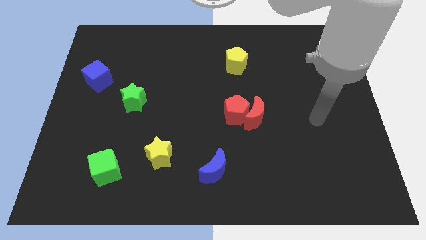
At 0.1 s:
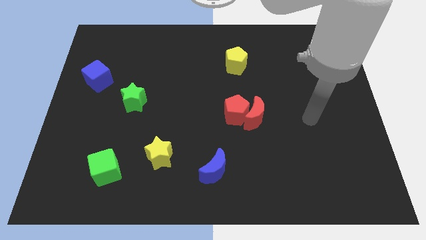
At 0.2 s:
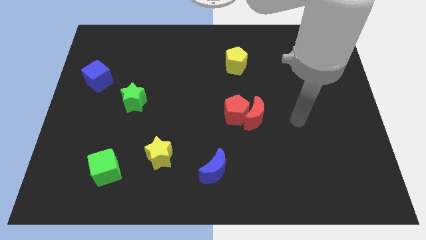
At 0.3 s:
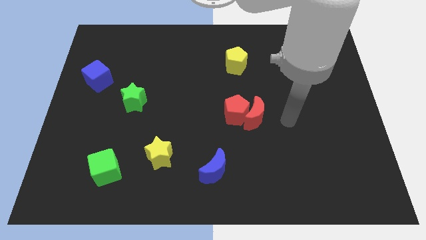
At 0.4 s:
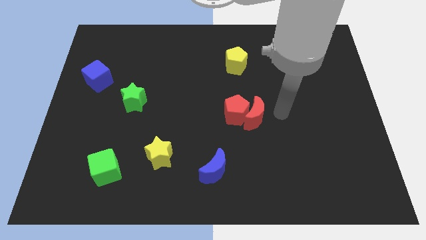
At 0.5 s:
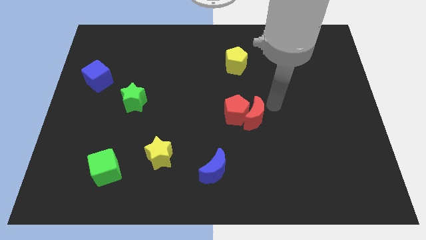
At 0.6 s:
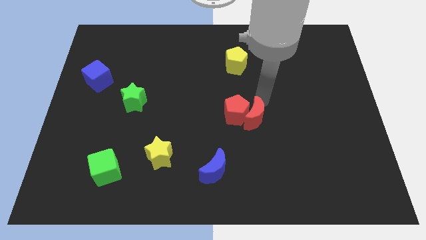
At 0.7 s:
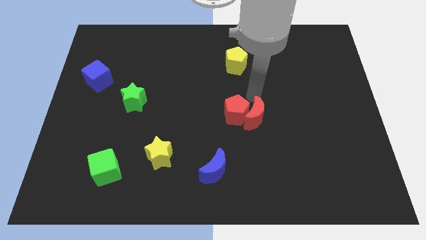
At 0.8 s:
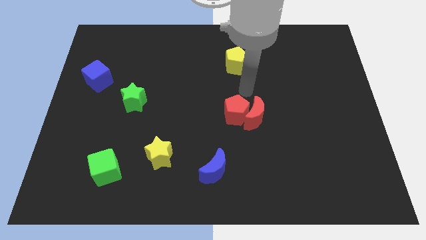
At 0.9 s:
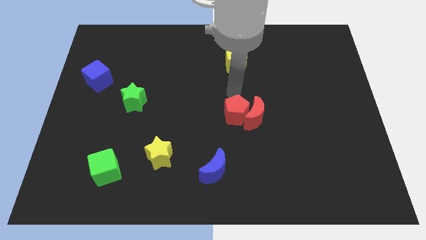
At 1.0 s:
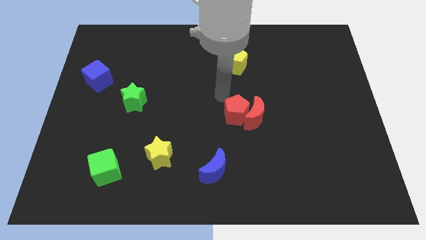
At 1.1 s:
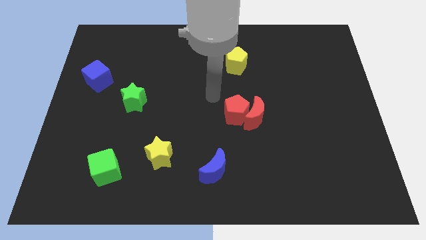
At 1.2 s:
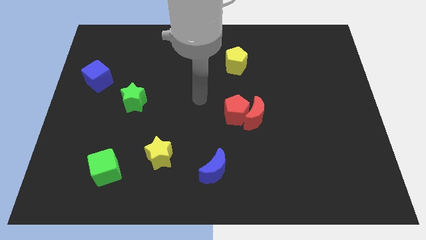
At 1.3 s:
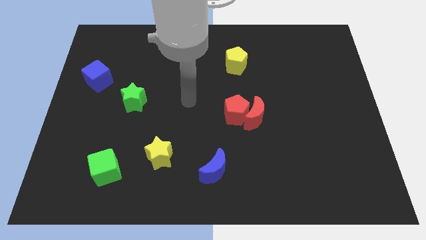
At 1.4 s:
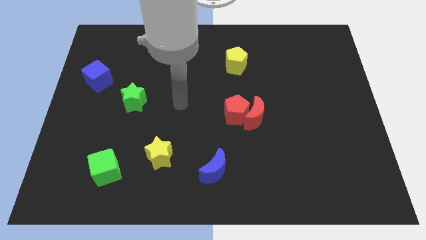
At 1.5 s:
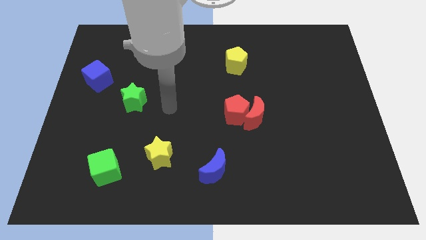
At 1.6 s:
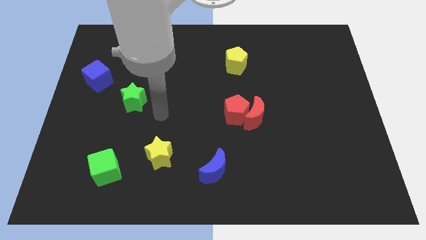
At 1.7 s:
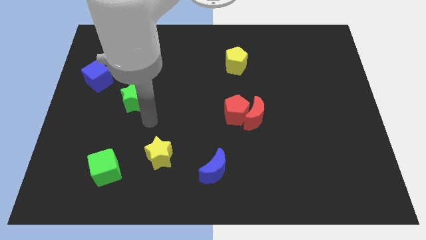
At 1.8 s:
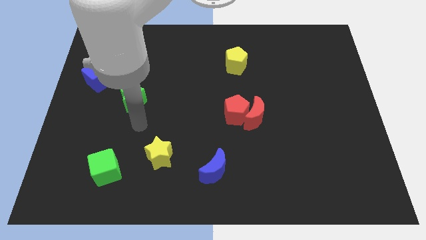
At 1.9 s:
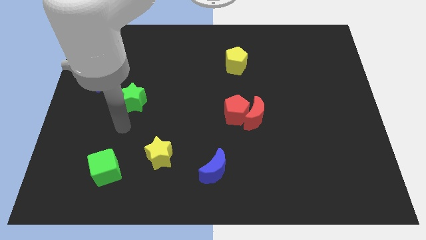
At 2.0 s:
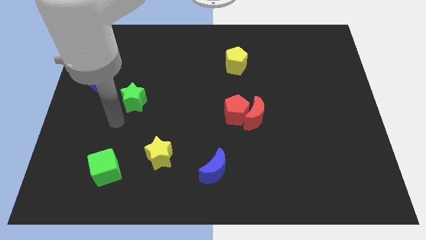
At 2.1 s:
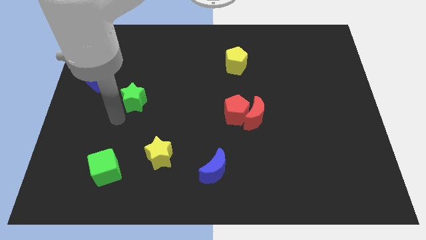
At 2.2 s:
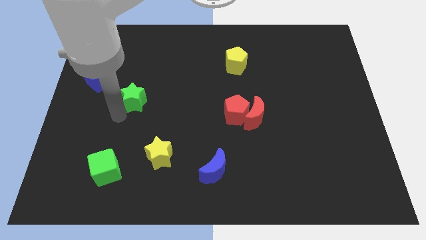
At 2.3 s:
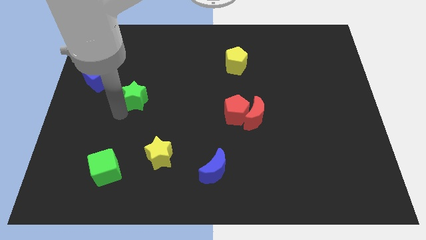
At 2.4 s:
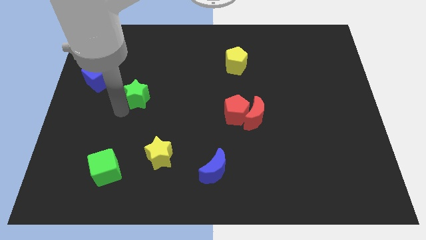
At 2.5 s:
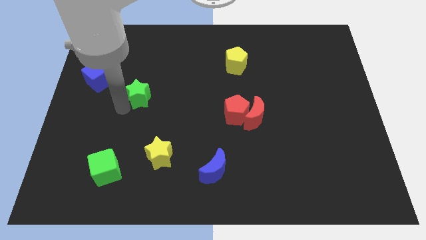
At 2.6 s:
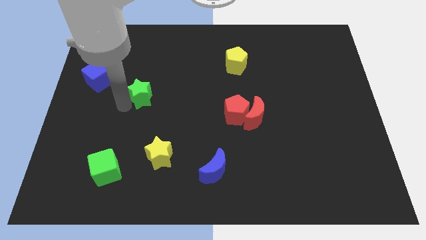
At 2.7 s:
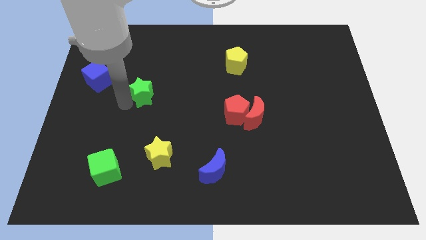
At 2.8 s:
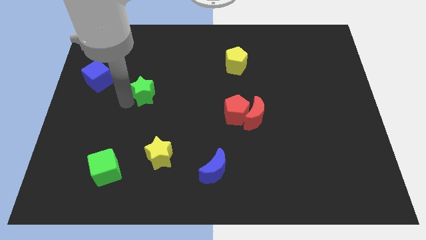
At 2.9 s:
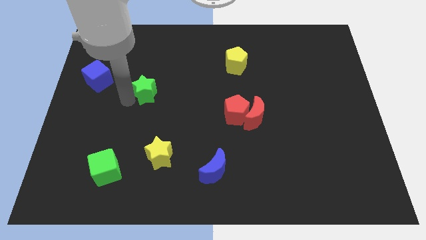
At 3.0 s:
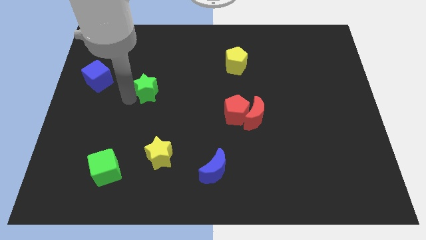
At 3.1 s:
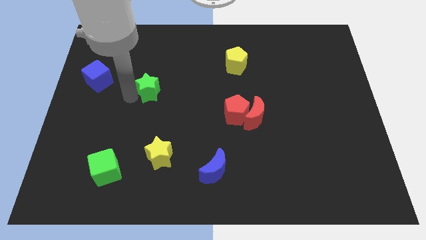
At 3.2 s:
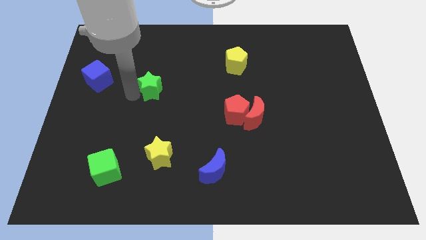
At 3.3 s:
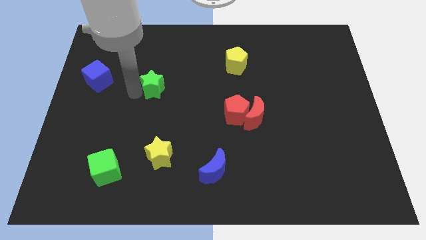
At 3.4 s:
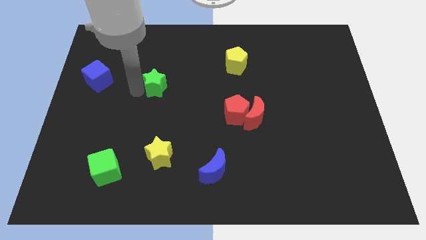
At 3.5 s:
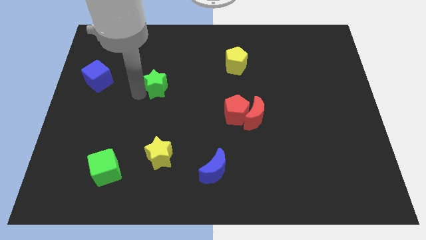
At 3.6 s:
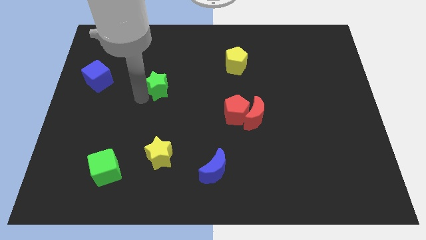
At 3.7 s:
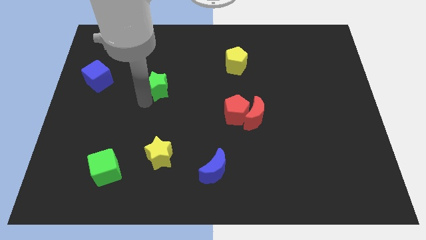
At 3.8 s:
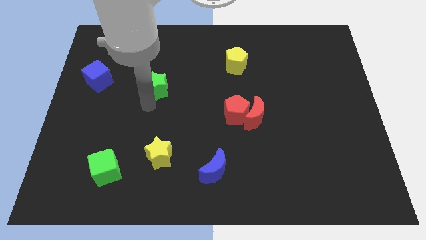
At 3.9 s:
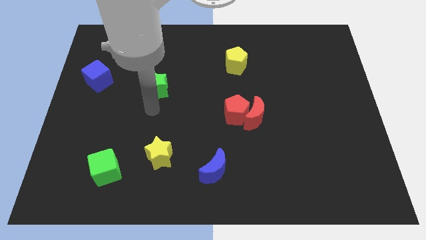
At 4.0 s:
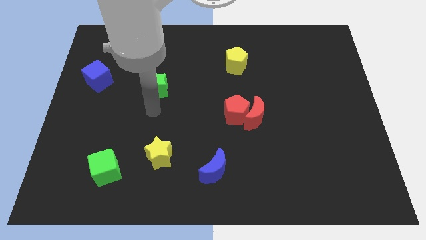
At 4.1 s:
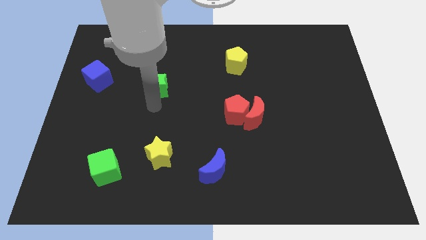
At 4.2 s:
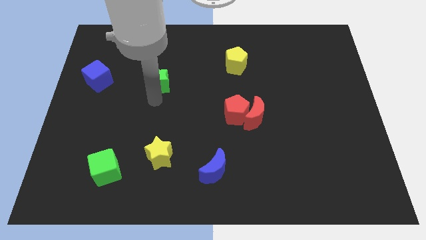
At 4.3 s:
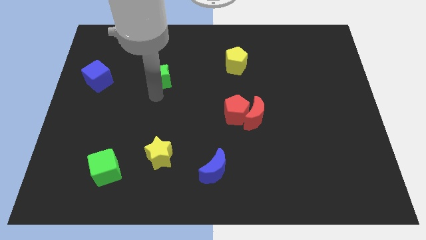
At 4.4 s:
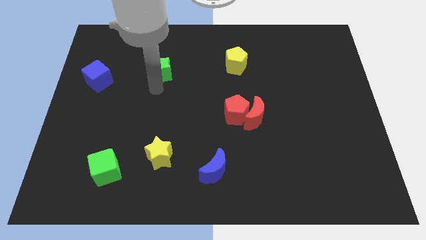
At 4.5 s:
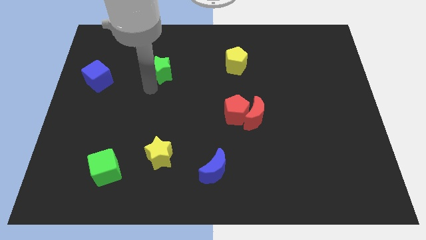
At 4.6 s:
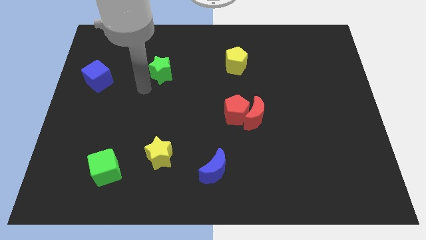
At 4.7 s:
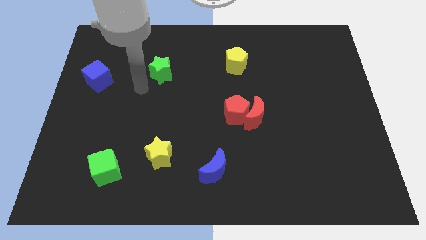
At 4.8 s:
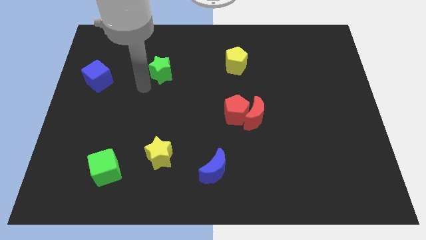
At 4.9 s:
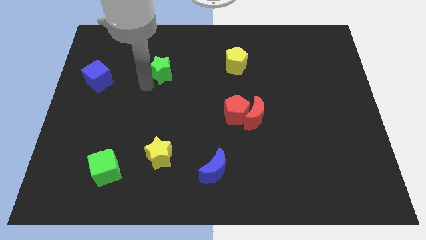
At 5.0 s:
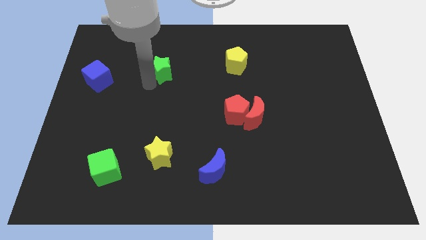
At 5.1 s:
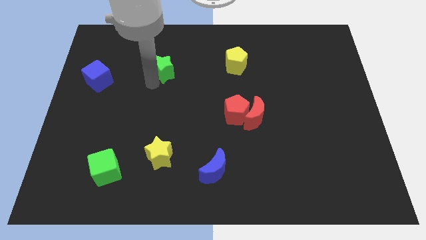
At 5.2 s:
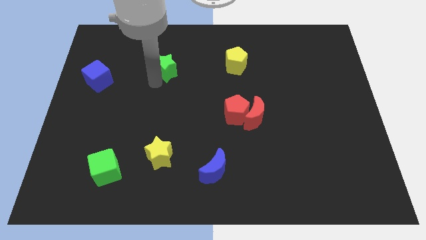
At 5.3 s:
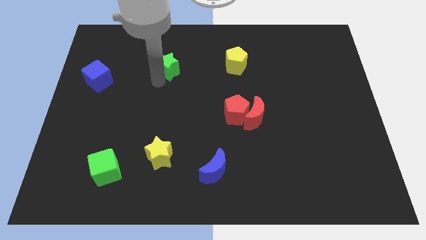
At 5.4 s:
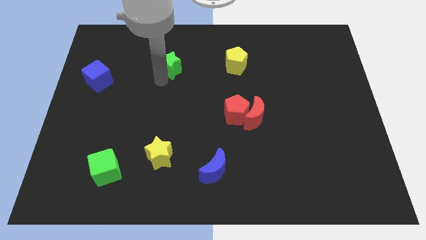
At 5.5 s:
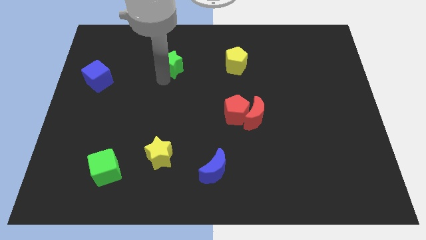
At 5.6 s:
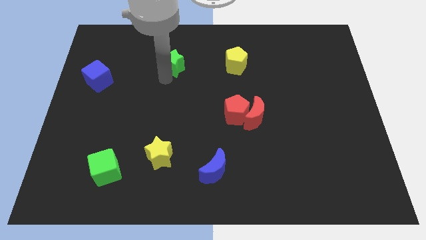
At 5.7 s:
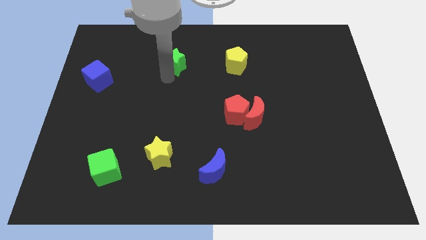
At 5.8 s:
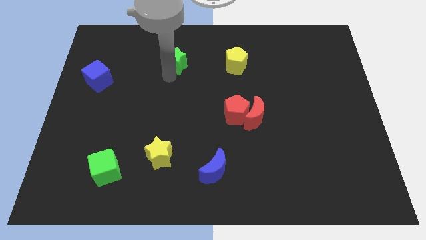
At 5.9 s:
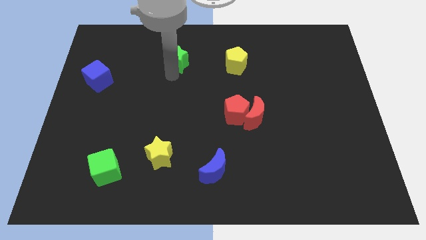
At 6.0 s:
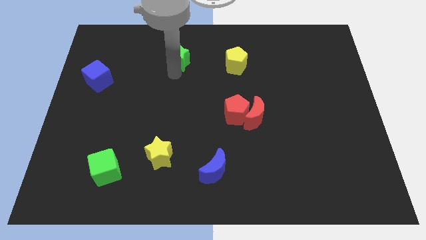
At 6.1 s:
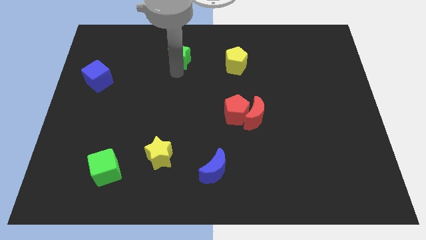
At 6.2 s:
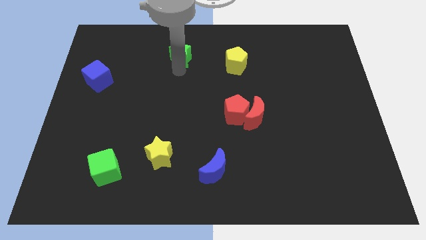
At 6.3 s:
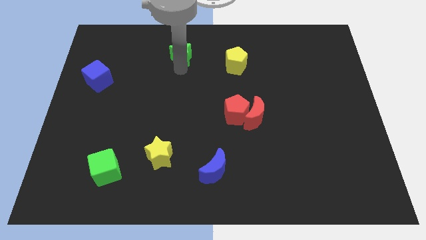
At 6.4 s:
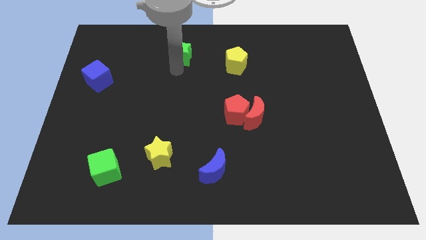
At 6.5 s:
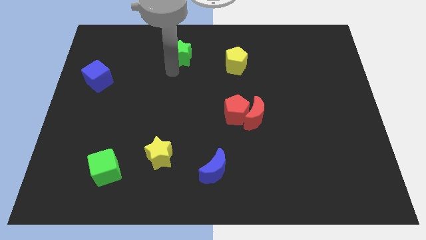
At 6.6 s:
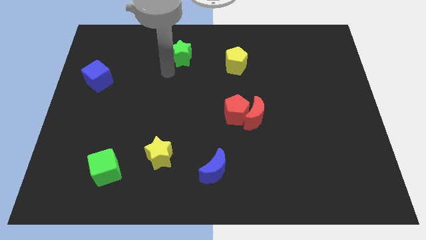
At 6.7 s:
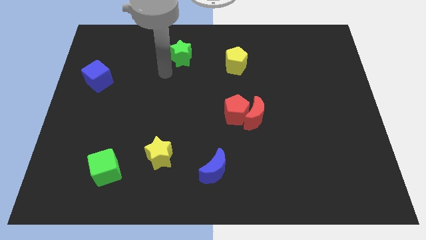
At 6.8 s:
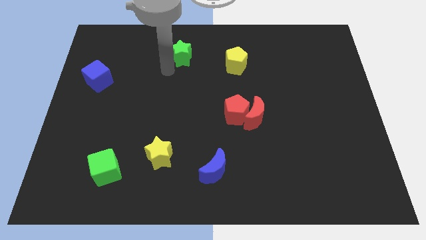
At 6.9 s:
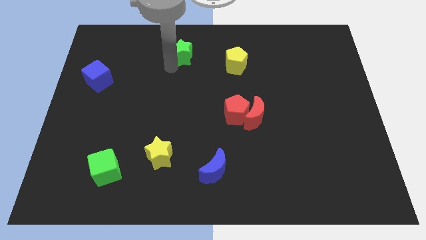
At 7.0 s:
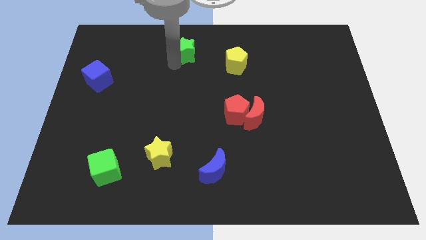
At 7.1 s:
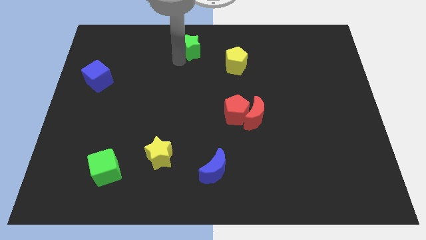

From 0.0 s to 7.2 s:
slide the green star to the towards your base

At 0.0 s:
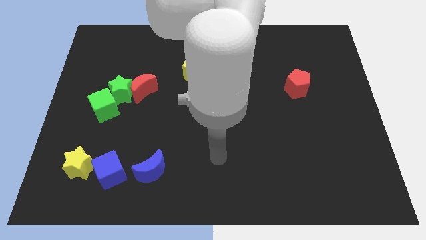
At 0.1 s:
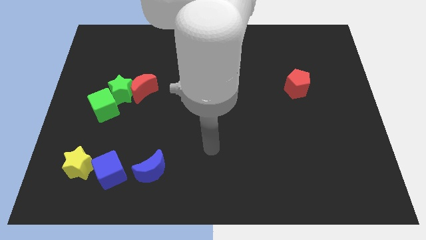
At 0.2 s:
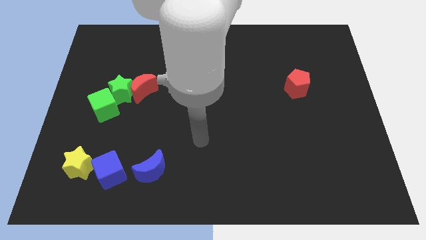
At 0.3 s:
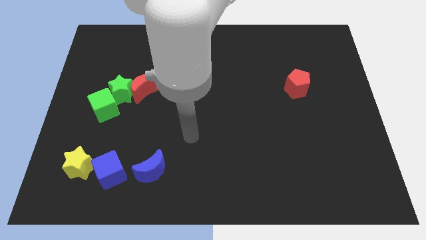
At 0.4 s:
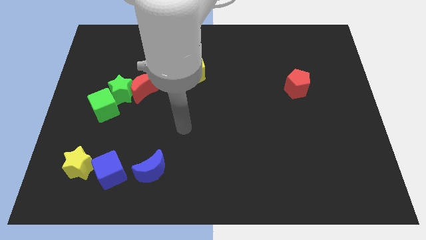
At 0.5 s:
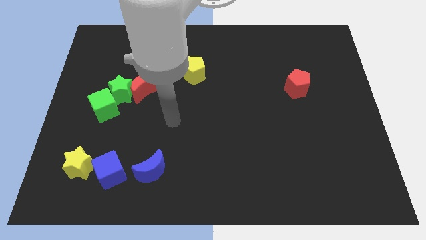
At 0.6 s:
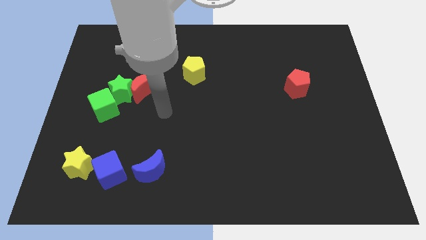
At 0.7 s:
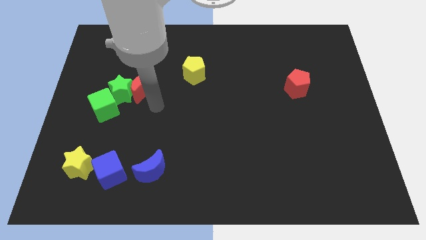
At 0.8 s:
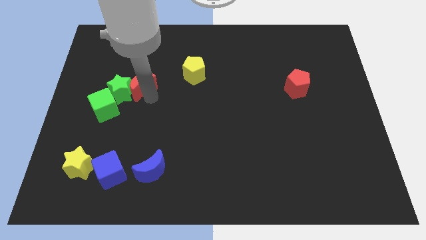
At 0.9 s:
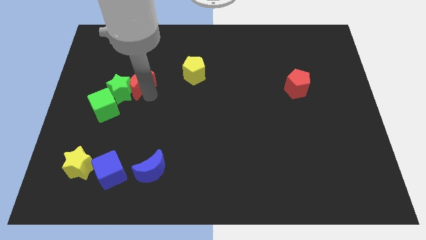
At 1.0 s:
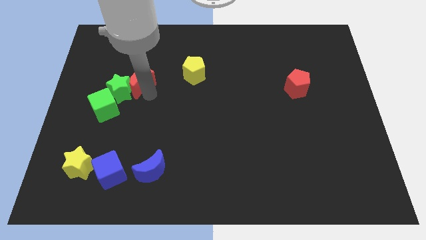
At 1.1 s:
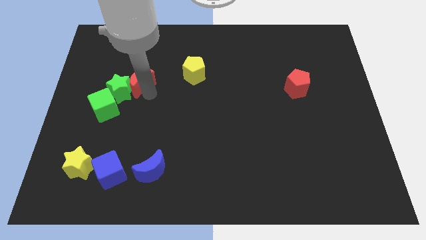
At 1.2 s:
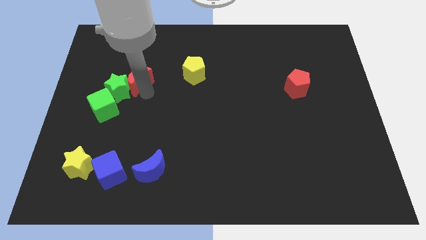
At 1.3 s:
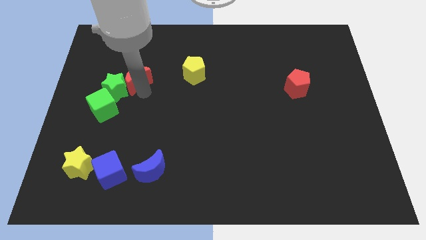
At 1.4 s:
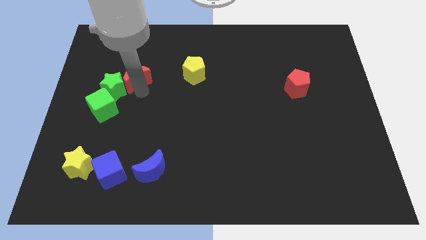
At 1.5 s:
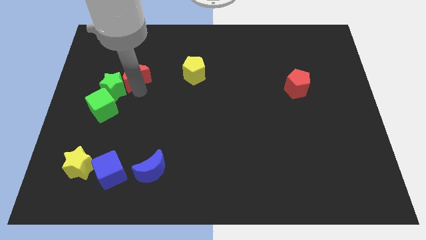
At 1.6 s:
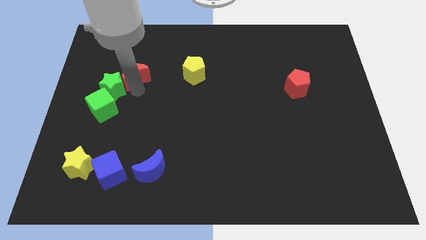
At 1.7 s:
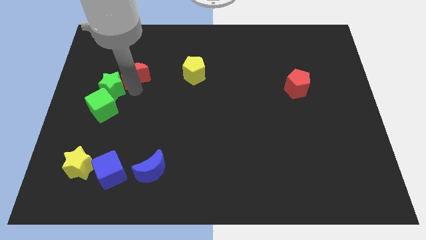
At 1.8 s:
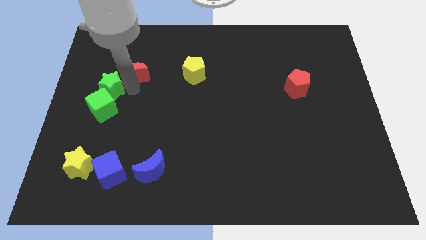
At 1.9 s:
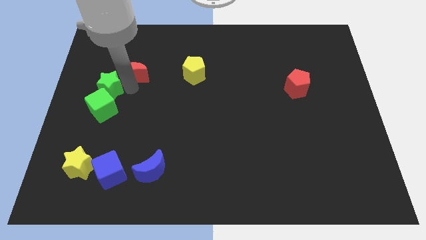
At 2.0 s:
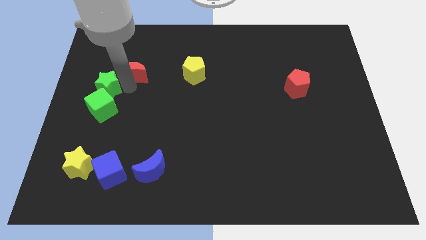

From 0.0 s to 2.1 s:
move the green star to the left side
